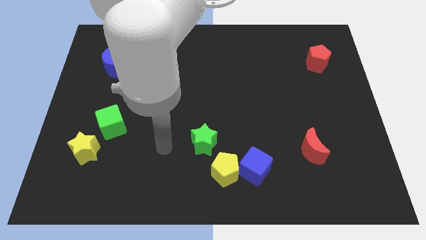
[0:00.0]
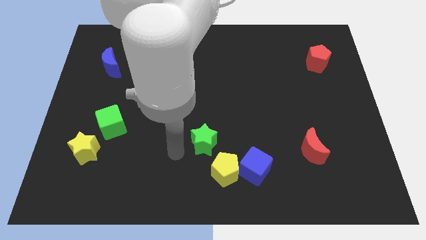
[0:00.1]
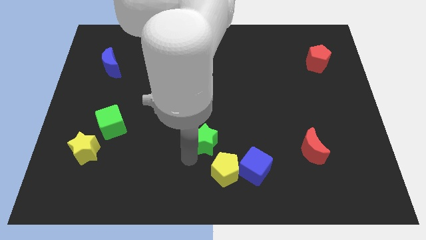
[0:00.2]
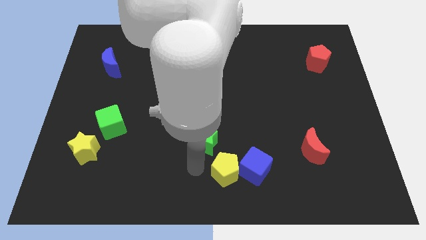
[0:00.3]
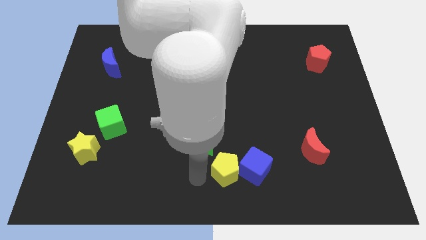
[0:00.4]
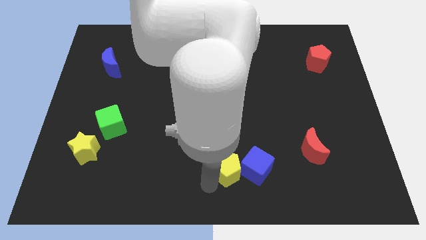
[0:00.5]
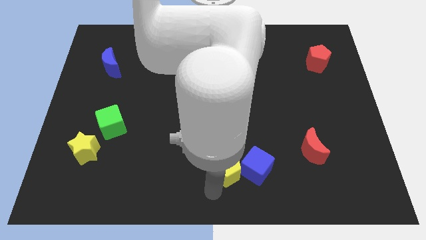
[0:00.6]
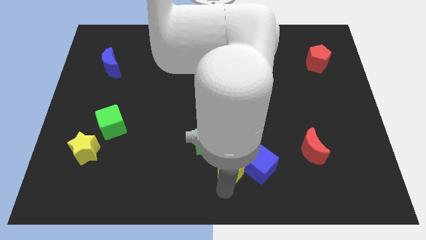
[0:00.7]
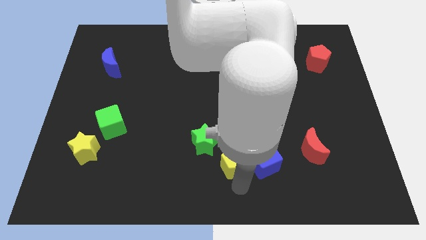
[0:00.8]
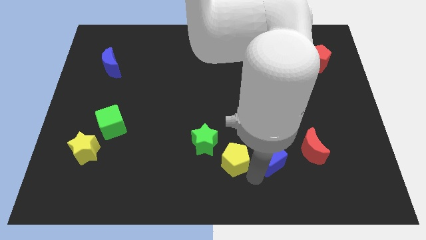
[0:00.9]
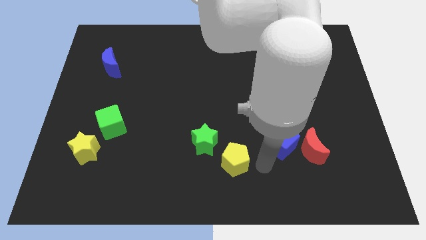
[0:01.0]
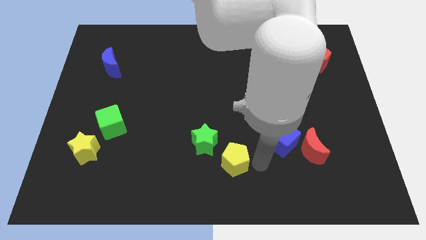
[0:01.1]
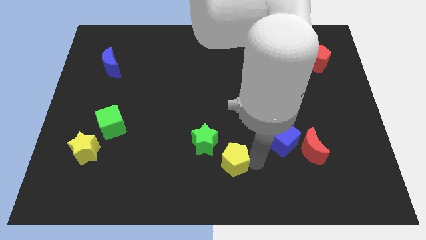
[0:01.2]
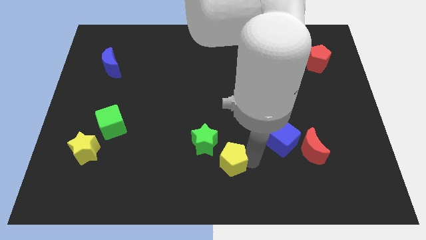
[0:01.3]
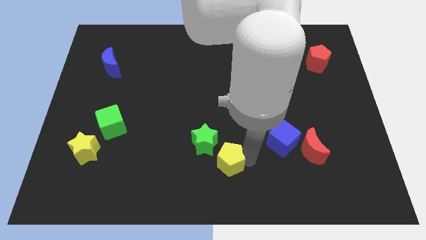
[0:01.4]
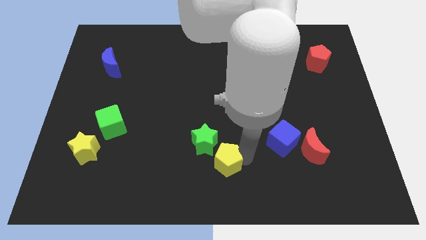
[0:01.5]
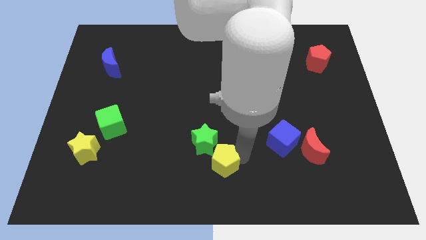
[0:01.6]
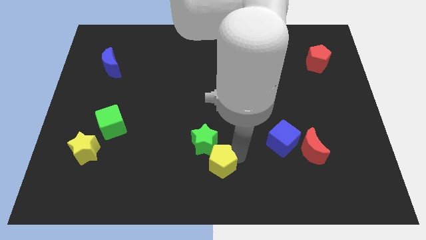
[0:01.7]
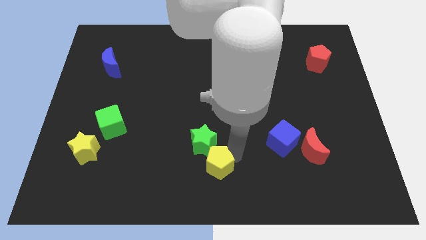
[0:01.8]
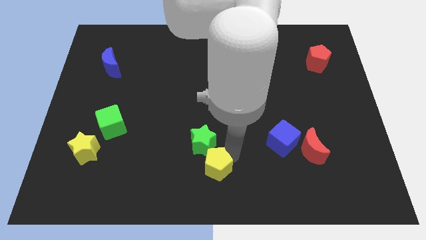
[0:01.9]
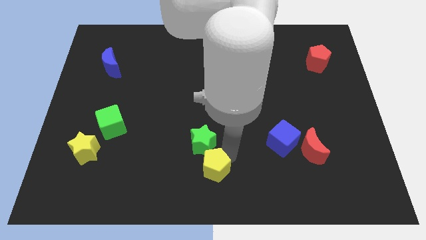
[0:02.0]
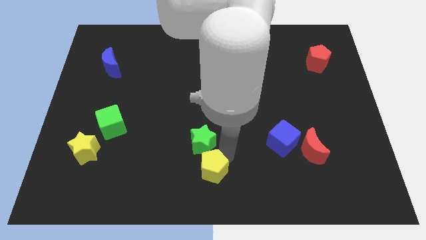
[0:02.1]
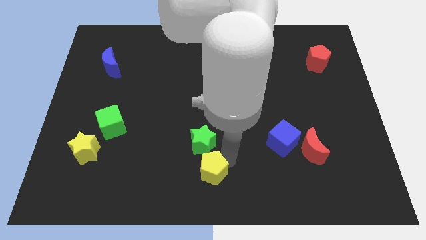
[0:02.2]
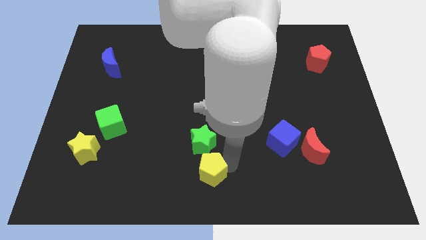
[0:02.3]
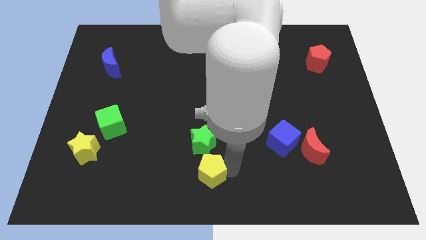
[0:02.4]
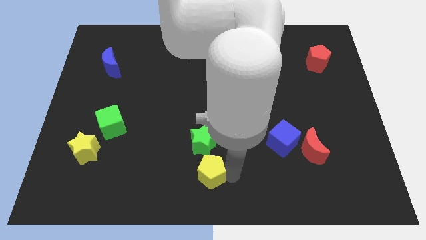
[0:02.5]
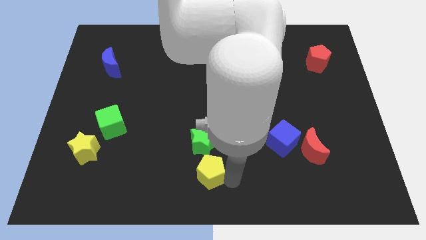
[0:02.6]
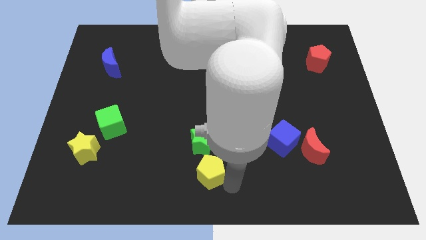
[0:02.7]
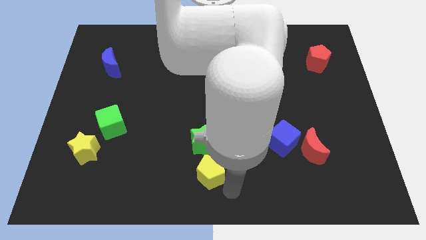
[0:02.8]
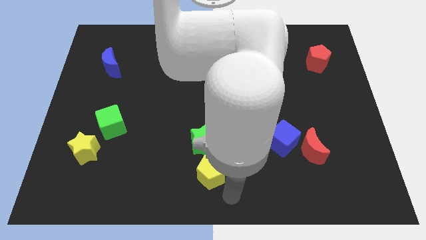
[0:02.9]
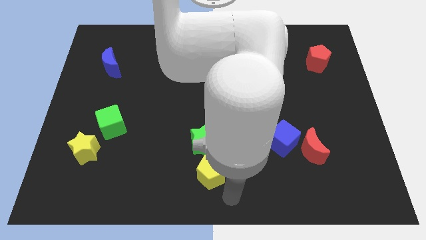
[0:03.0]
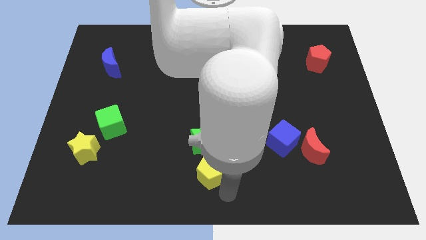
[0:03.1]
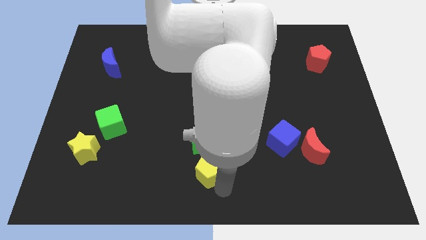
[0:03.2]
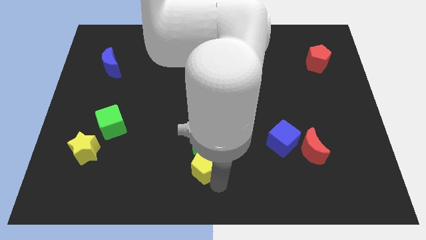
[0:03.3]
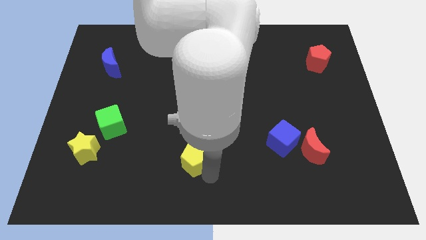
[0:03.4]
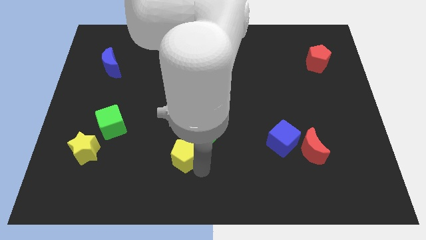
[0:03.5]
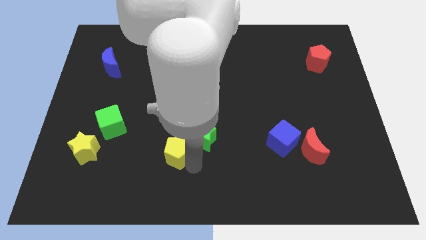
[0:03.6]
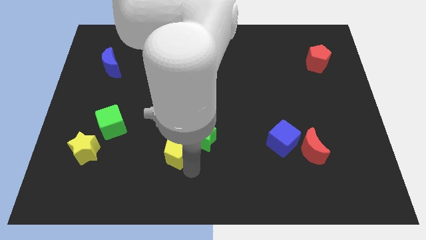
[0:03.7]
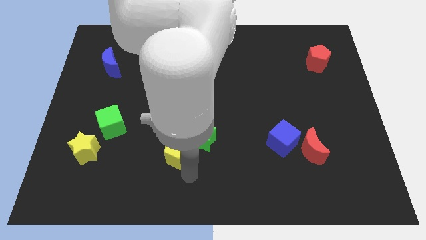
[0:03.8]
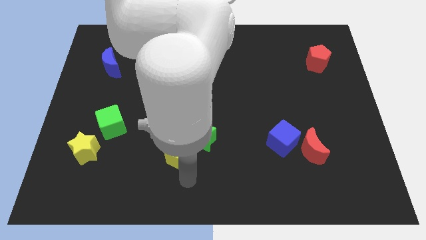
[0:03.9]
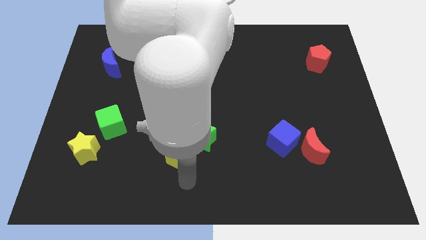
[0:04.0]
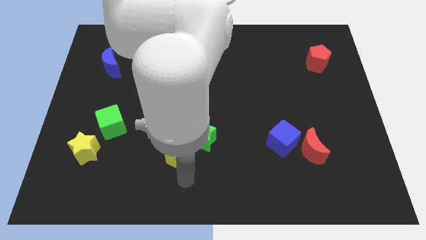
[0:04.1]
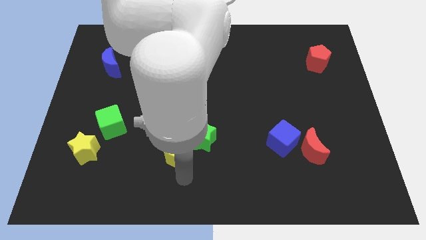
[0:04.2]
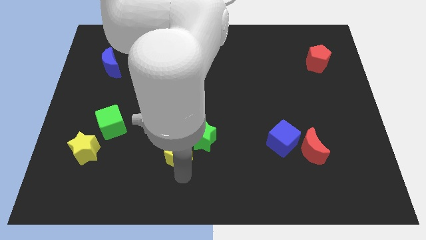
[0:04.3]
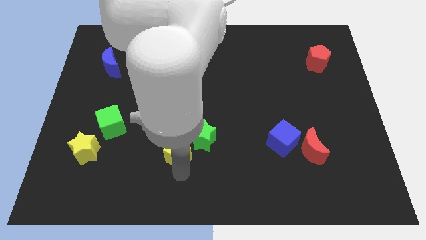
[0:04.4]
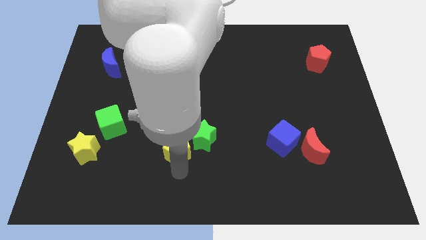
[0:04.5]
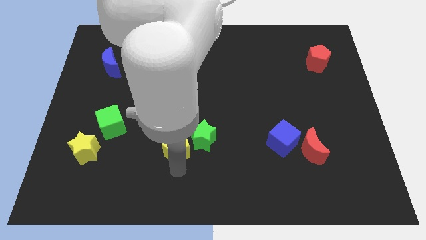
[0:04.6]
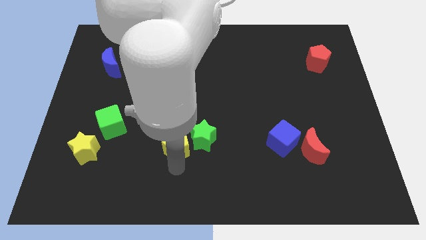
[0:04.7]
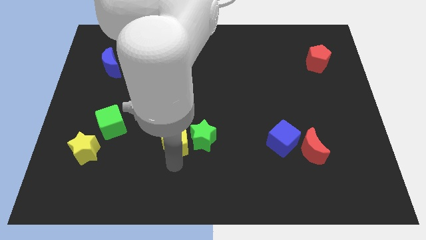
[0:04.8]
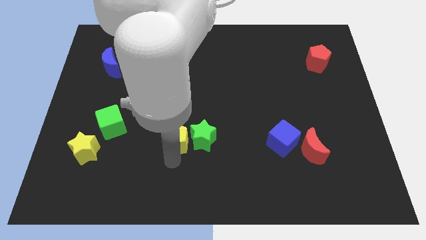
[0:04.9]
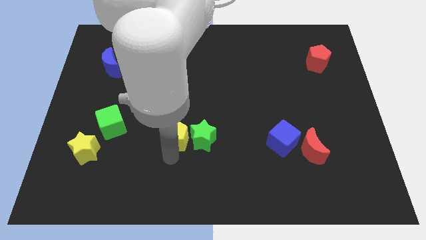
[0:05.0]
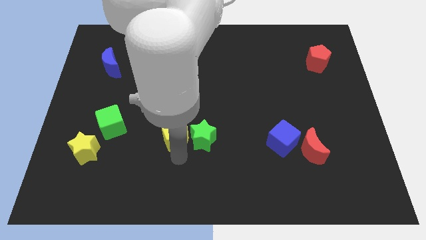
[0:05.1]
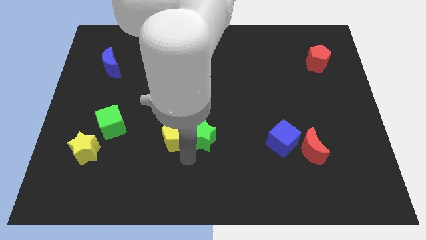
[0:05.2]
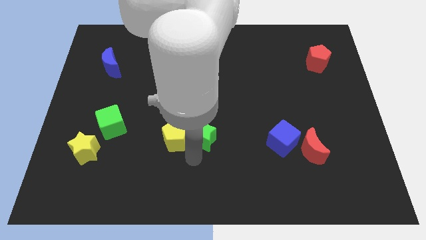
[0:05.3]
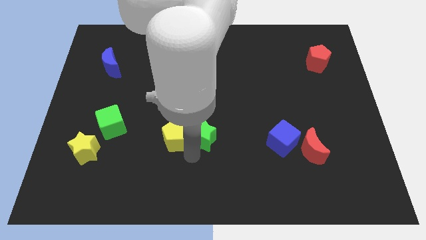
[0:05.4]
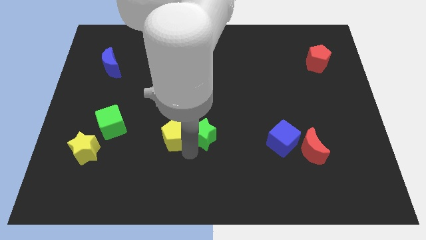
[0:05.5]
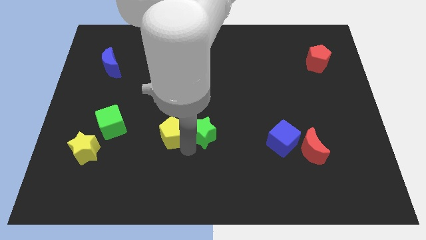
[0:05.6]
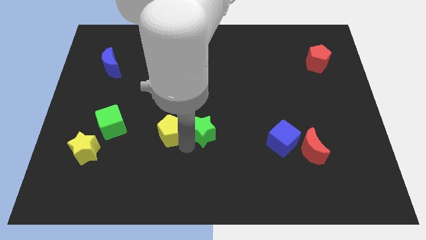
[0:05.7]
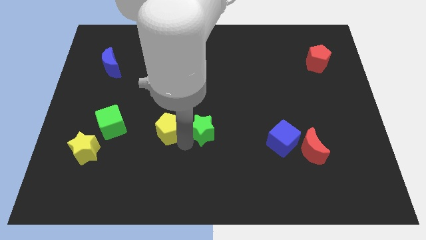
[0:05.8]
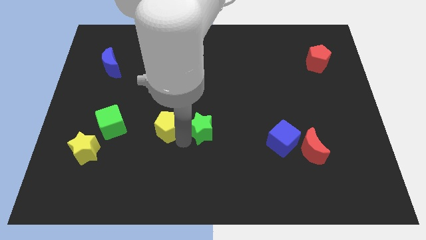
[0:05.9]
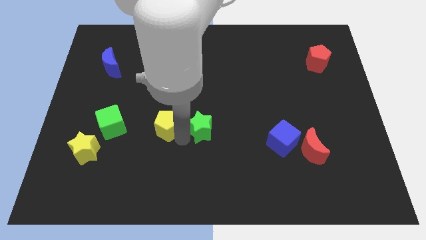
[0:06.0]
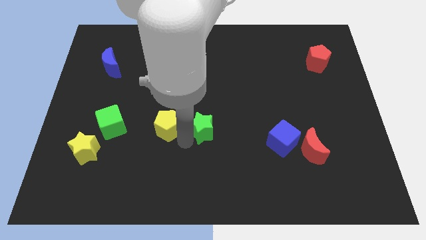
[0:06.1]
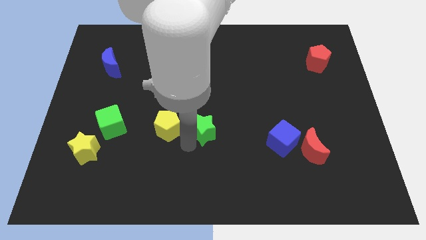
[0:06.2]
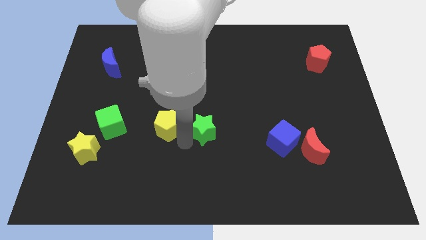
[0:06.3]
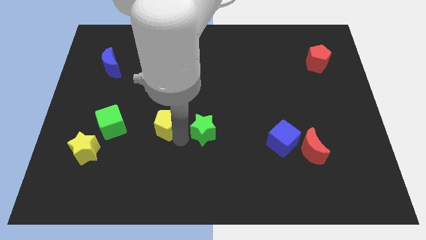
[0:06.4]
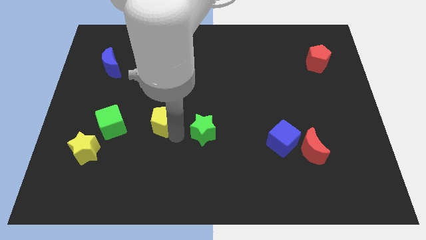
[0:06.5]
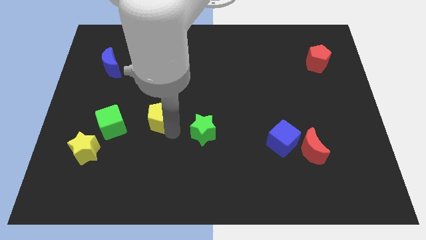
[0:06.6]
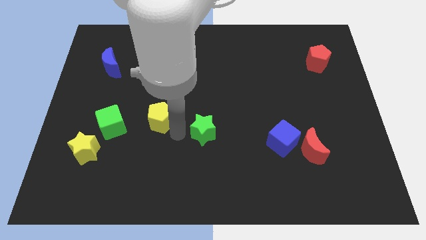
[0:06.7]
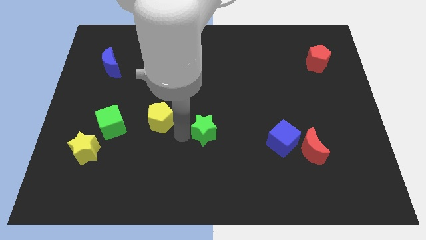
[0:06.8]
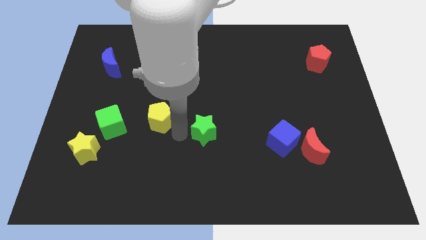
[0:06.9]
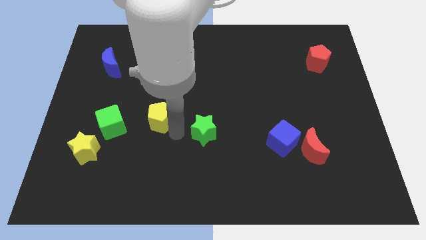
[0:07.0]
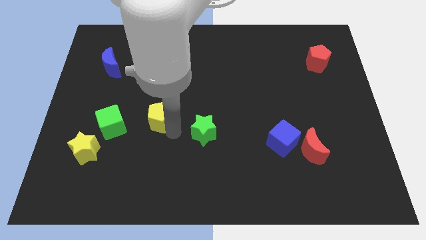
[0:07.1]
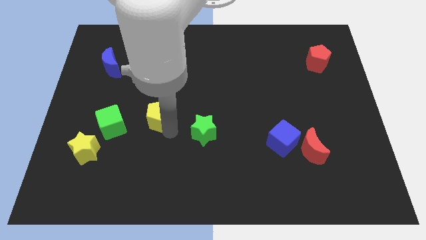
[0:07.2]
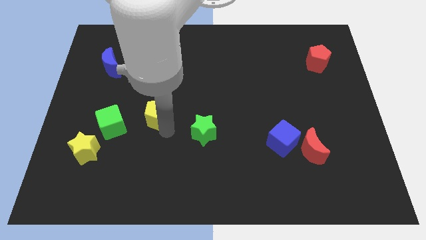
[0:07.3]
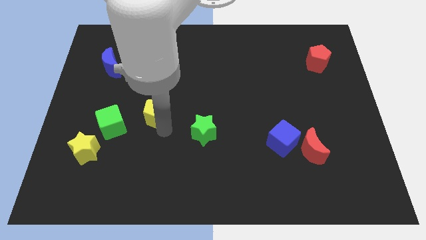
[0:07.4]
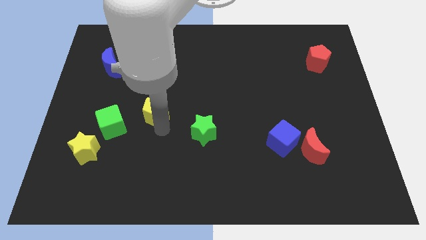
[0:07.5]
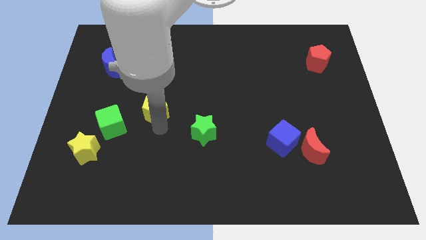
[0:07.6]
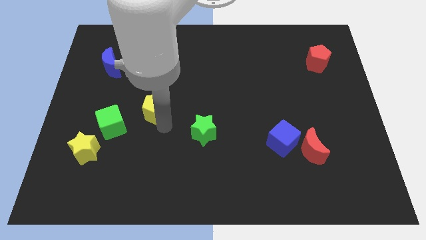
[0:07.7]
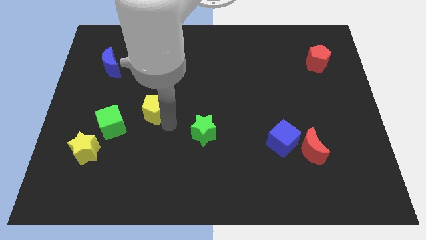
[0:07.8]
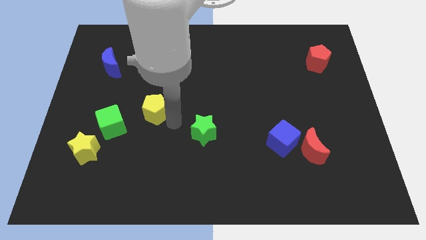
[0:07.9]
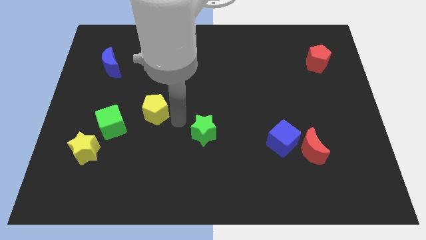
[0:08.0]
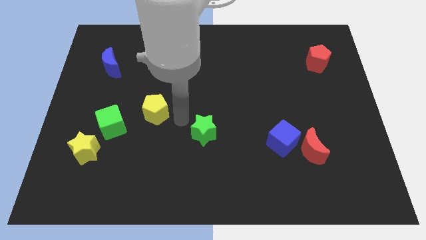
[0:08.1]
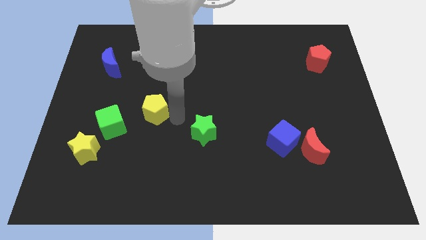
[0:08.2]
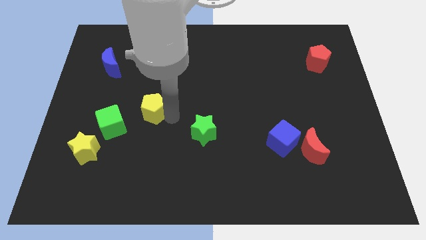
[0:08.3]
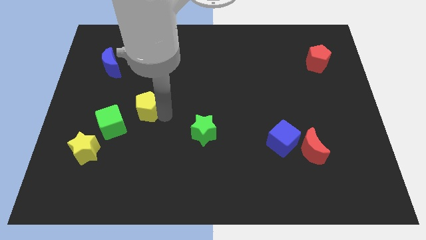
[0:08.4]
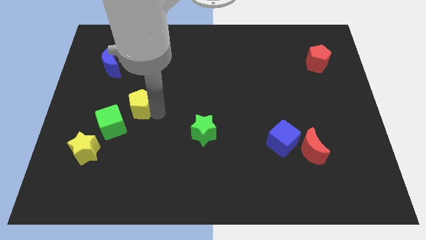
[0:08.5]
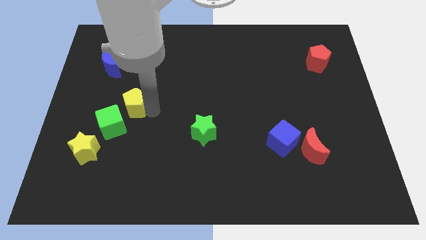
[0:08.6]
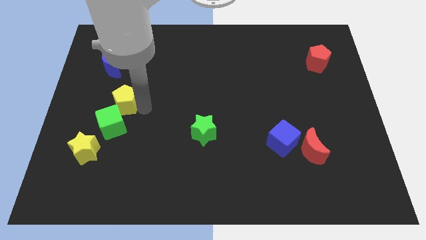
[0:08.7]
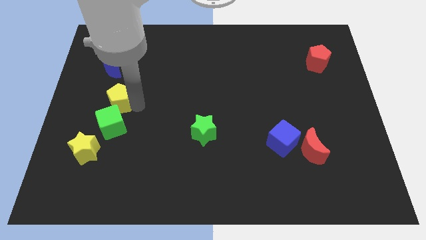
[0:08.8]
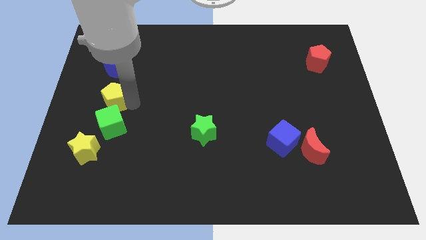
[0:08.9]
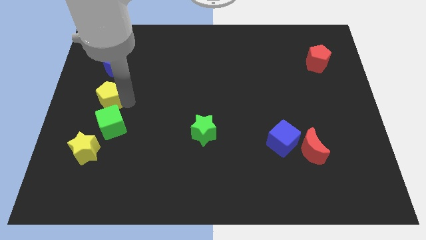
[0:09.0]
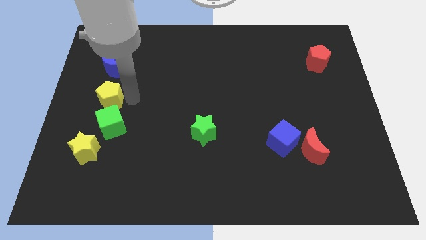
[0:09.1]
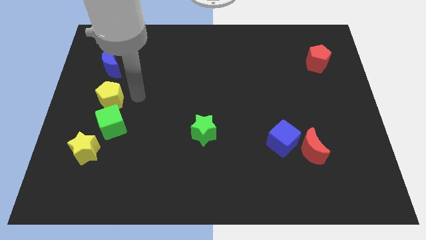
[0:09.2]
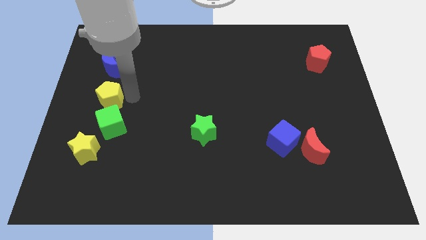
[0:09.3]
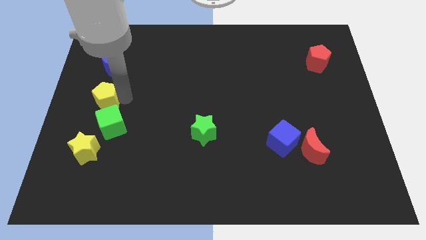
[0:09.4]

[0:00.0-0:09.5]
push the yellow pentagon to the left side
